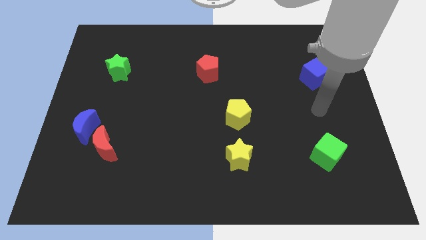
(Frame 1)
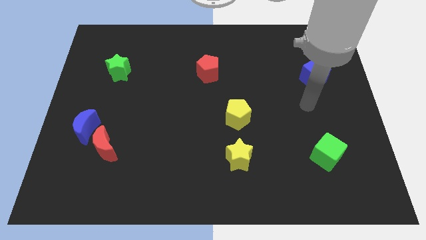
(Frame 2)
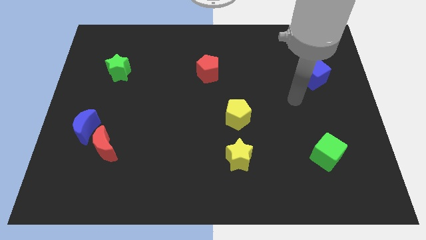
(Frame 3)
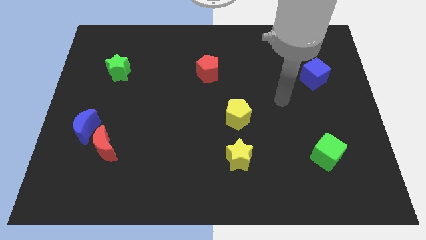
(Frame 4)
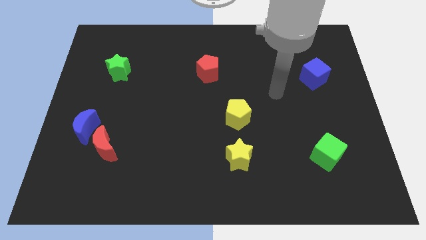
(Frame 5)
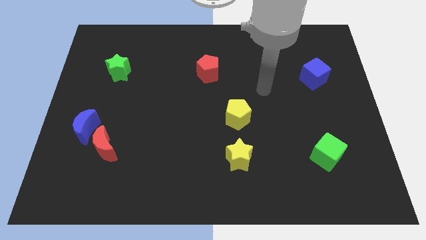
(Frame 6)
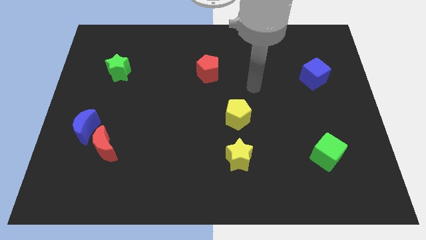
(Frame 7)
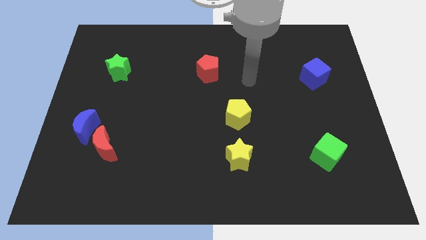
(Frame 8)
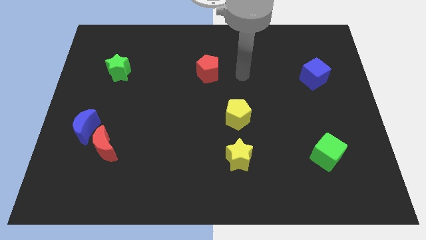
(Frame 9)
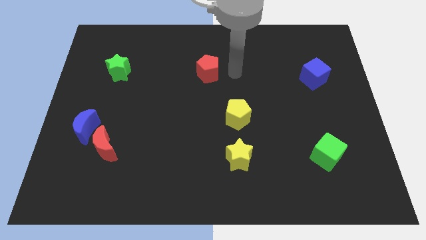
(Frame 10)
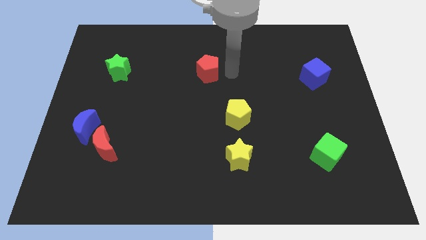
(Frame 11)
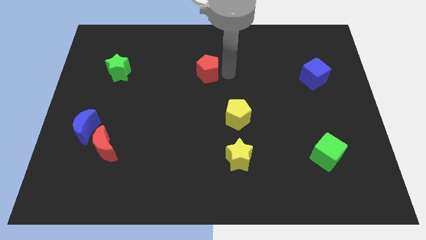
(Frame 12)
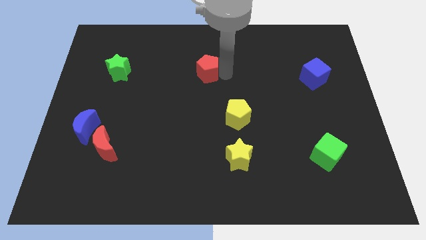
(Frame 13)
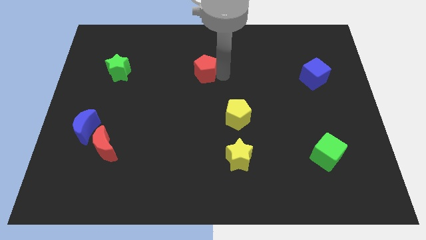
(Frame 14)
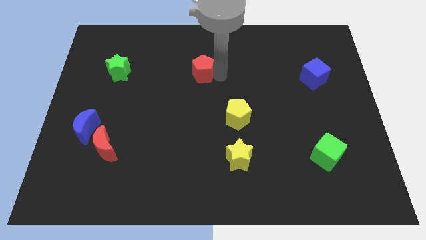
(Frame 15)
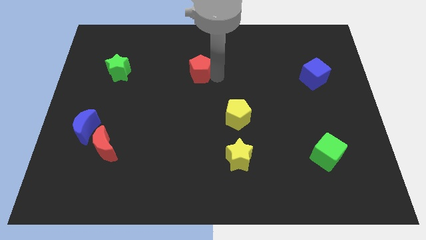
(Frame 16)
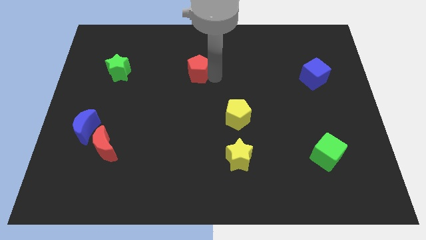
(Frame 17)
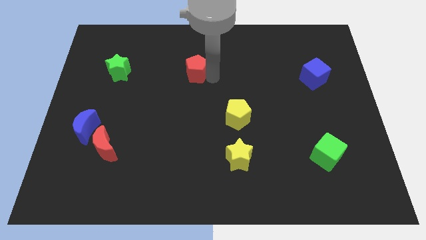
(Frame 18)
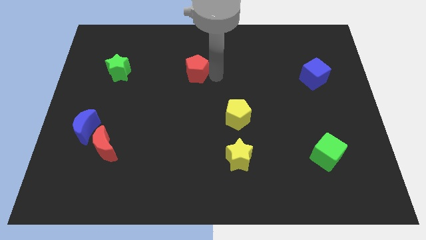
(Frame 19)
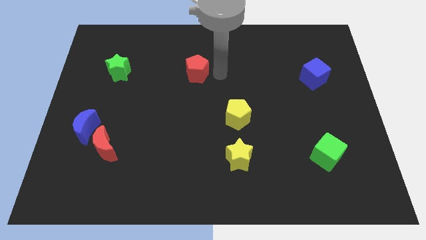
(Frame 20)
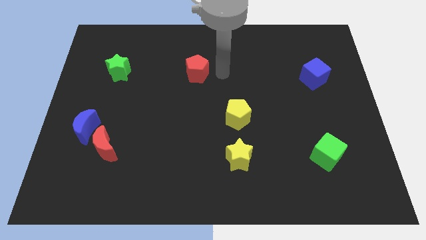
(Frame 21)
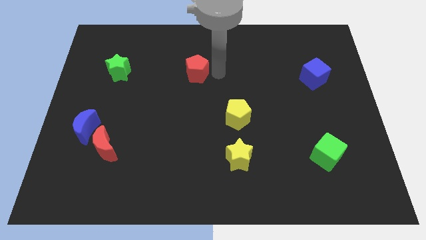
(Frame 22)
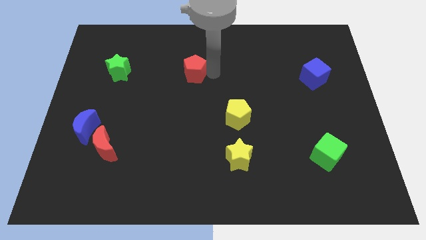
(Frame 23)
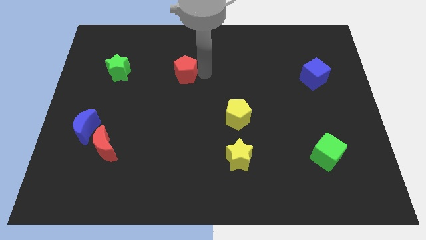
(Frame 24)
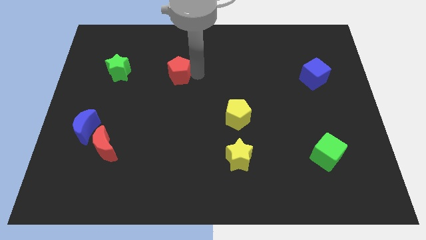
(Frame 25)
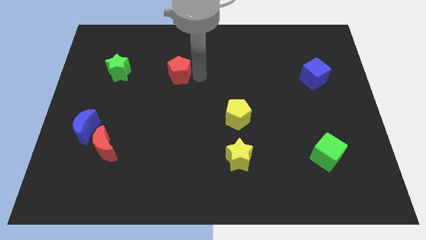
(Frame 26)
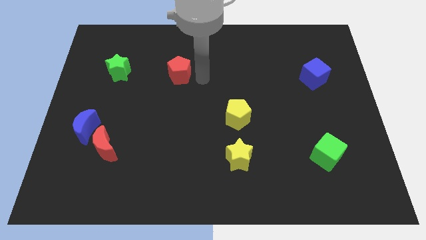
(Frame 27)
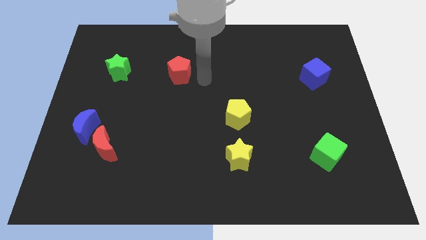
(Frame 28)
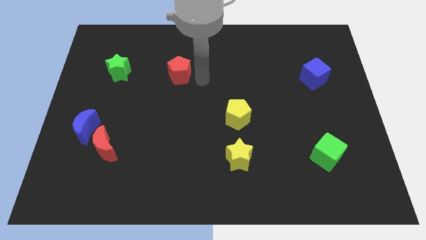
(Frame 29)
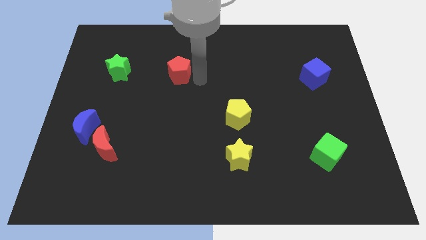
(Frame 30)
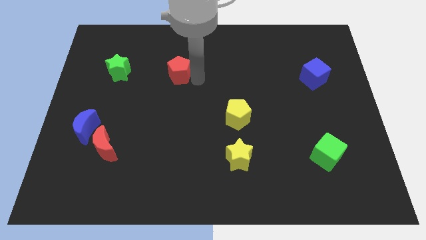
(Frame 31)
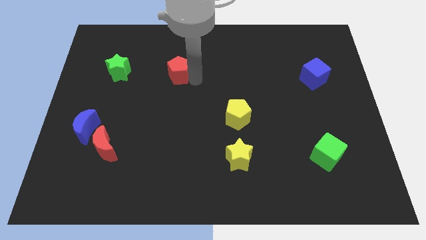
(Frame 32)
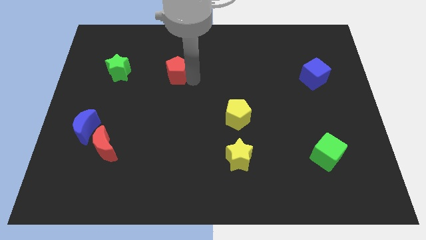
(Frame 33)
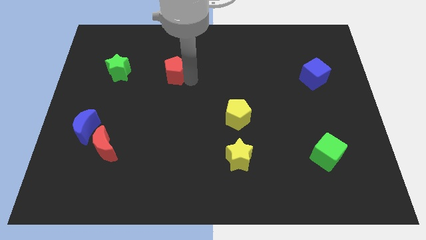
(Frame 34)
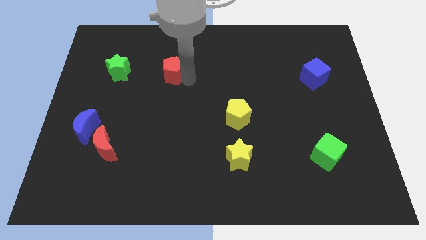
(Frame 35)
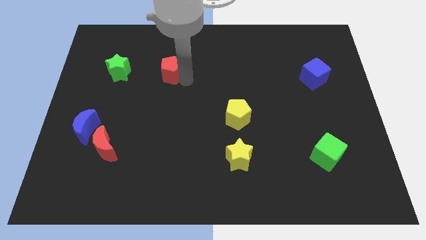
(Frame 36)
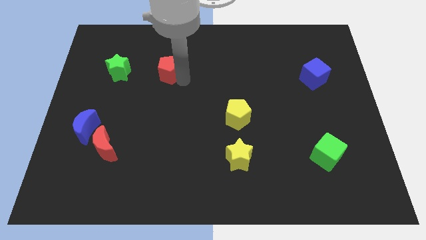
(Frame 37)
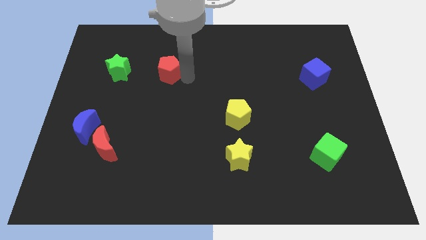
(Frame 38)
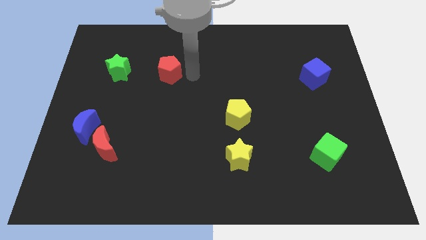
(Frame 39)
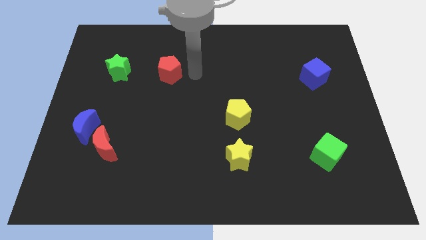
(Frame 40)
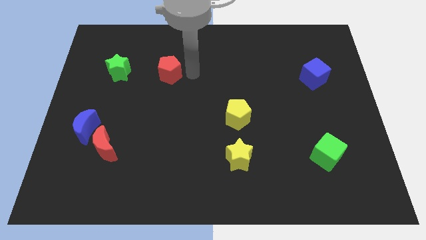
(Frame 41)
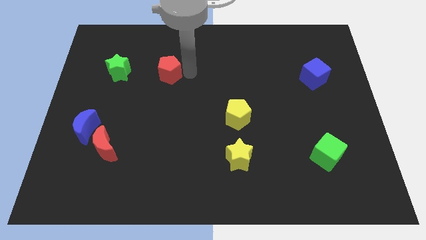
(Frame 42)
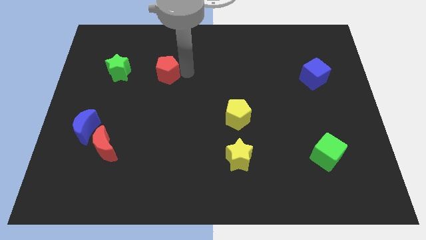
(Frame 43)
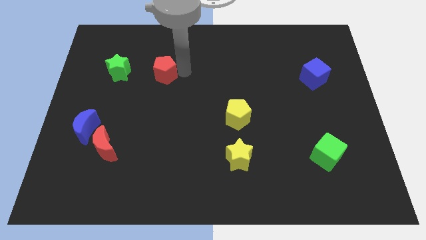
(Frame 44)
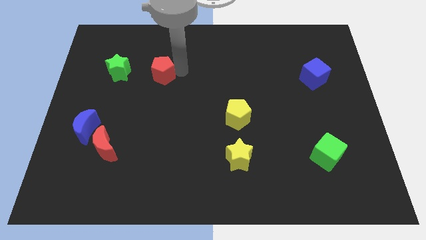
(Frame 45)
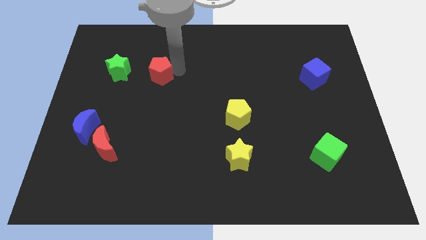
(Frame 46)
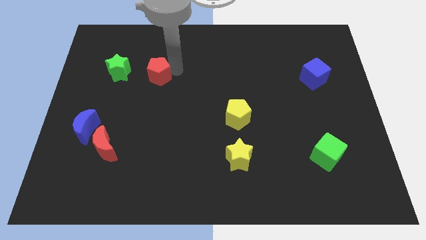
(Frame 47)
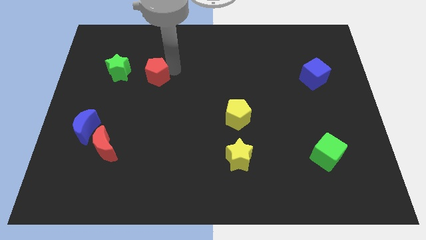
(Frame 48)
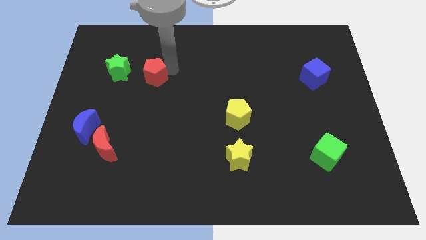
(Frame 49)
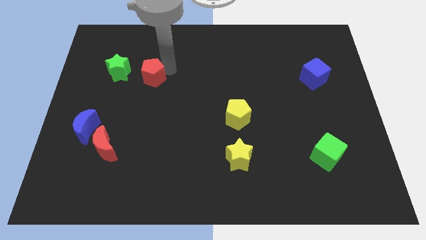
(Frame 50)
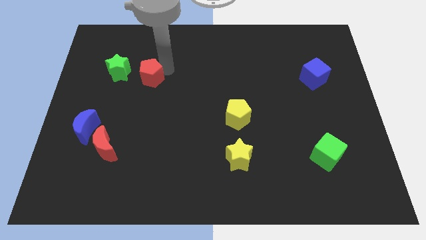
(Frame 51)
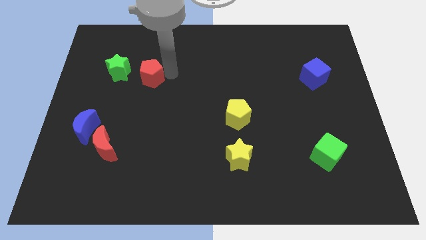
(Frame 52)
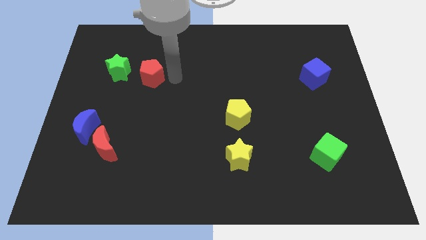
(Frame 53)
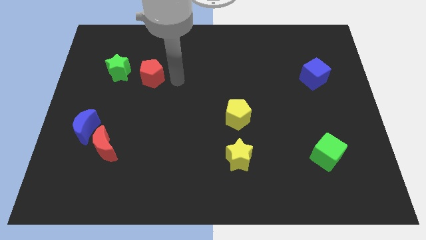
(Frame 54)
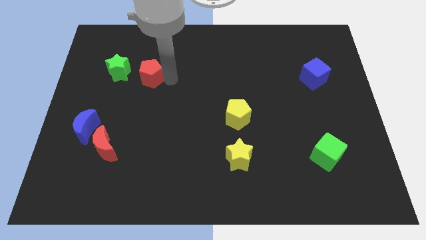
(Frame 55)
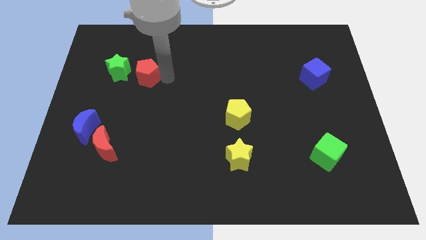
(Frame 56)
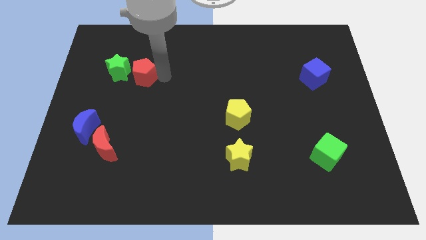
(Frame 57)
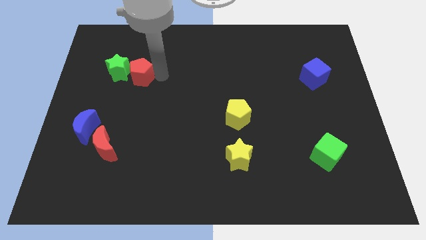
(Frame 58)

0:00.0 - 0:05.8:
put the red pentagon towards the green star

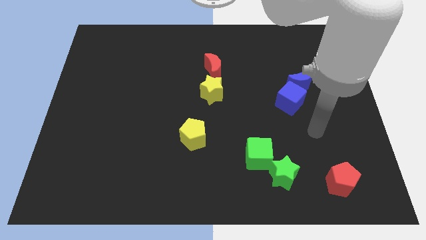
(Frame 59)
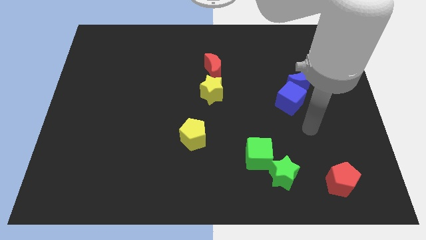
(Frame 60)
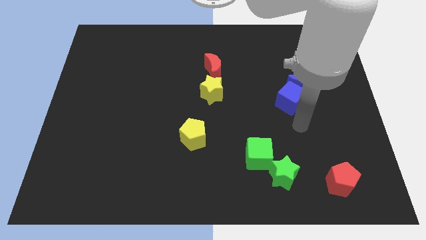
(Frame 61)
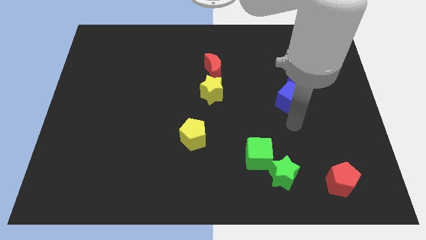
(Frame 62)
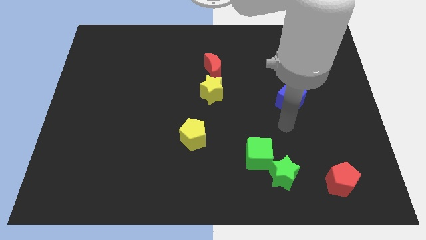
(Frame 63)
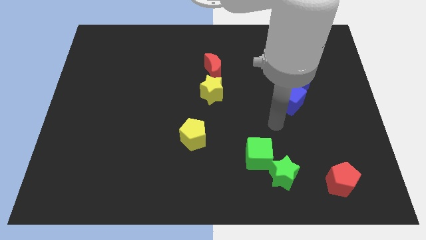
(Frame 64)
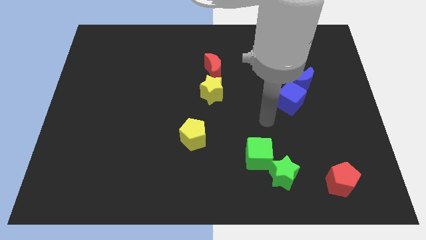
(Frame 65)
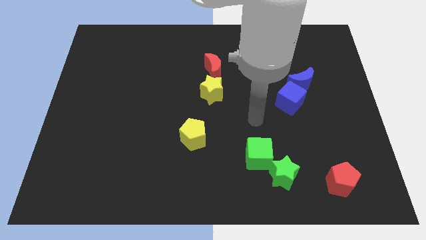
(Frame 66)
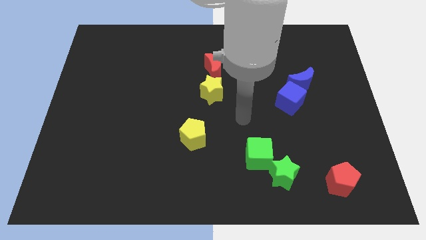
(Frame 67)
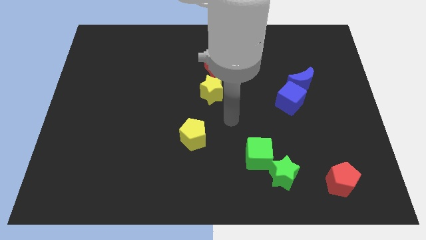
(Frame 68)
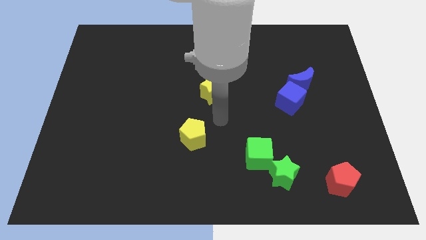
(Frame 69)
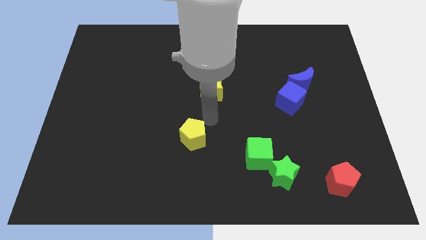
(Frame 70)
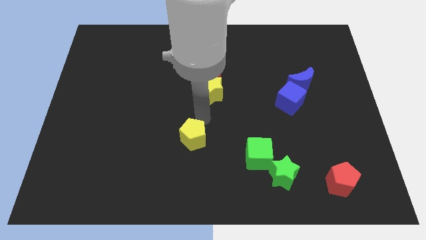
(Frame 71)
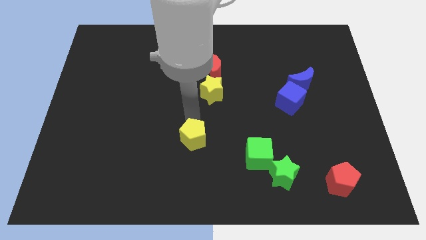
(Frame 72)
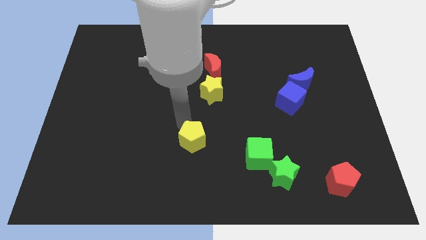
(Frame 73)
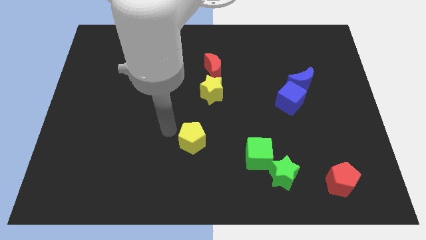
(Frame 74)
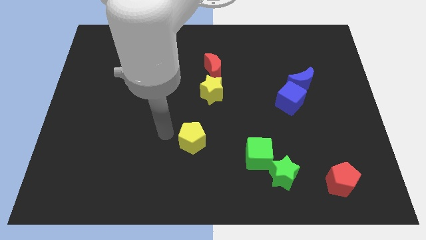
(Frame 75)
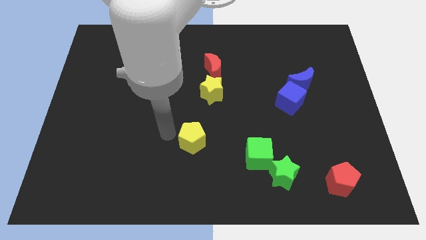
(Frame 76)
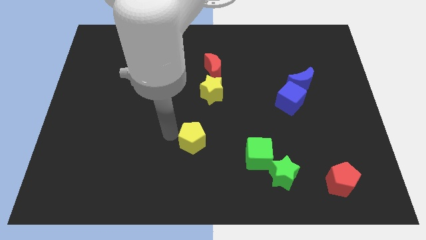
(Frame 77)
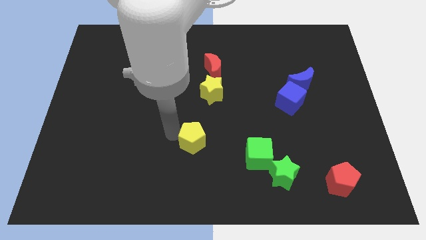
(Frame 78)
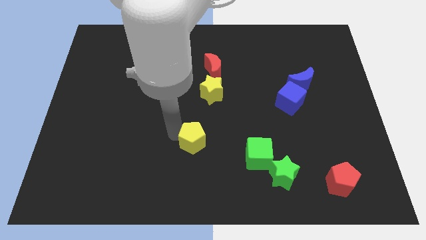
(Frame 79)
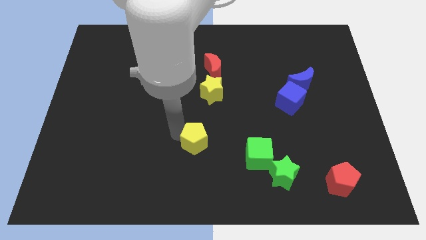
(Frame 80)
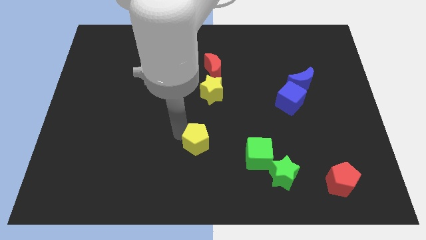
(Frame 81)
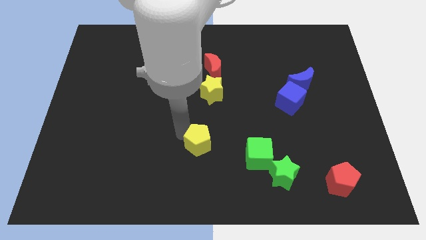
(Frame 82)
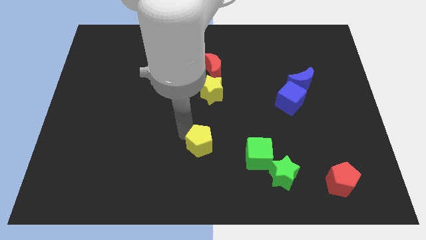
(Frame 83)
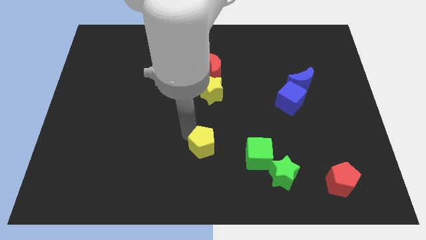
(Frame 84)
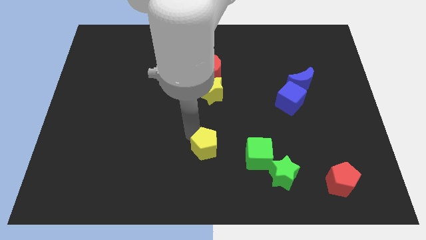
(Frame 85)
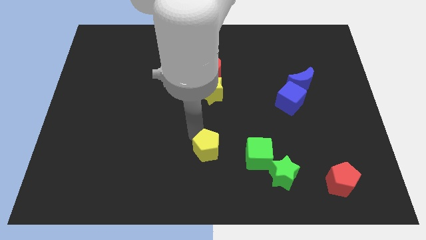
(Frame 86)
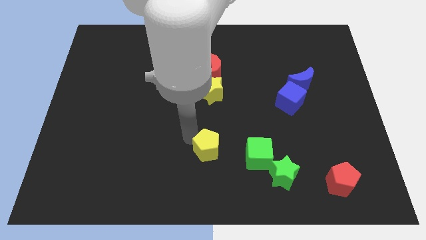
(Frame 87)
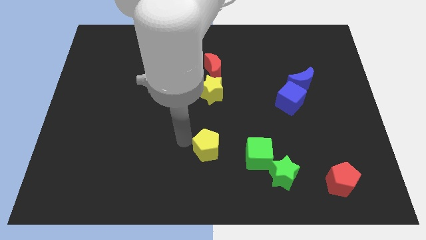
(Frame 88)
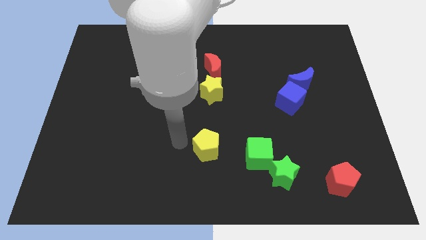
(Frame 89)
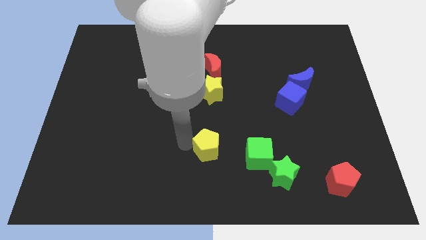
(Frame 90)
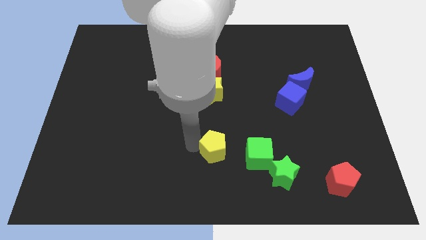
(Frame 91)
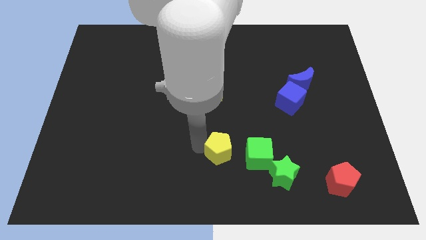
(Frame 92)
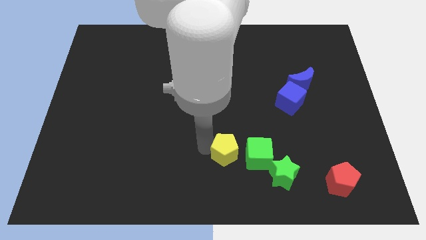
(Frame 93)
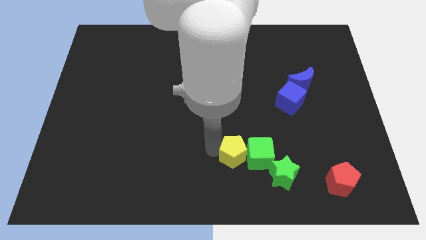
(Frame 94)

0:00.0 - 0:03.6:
put the yellow pentagon next to the green cube
